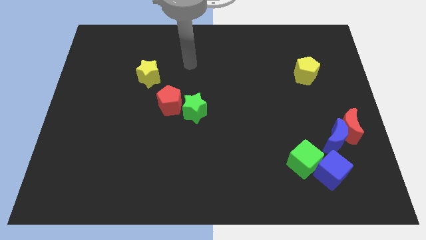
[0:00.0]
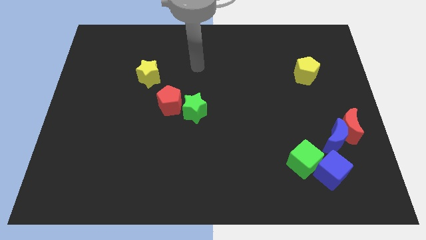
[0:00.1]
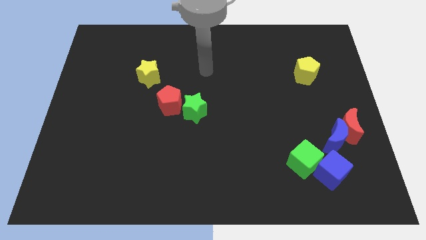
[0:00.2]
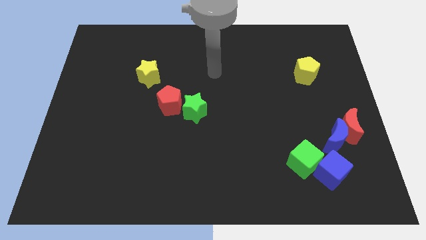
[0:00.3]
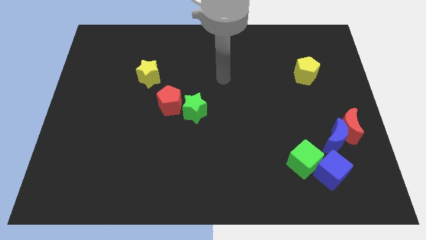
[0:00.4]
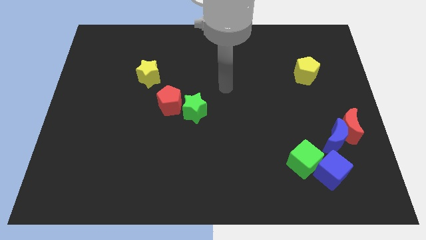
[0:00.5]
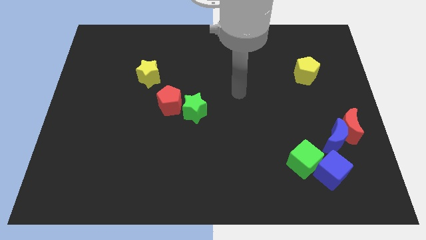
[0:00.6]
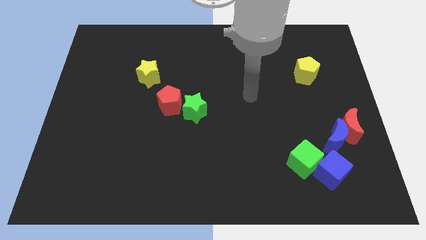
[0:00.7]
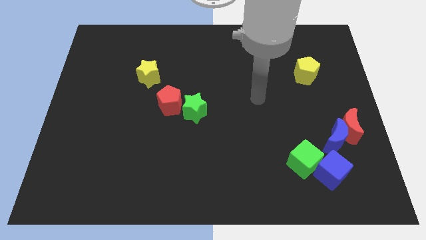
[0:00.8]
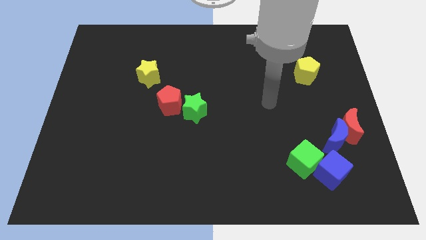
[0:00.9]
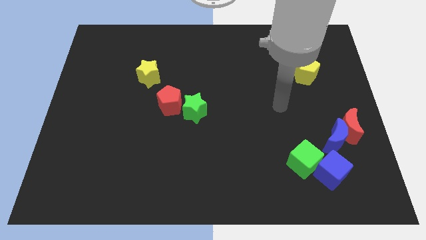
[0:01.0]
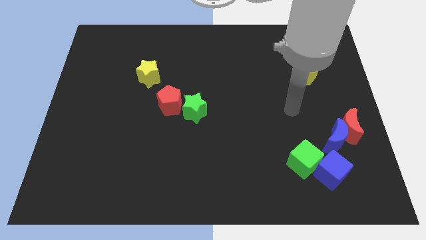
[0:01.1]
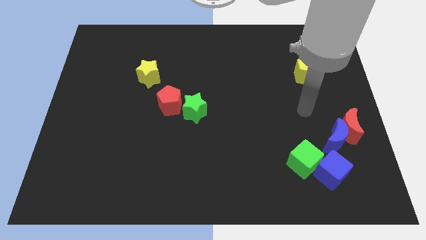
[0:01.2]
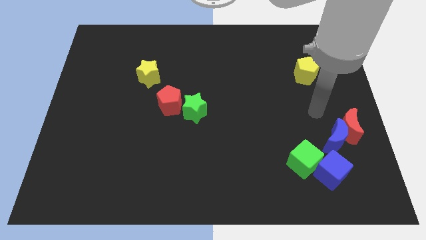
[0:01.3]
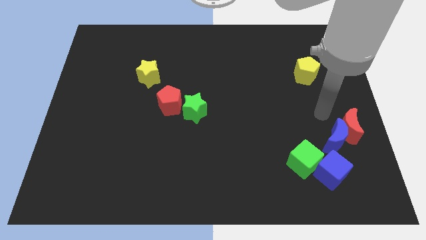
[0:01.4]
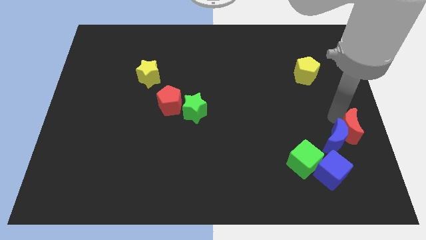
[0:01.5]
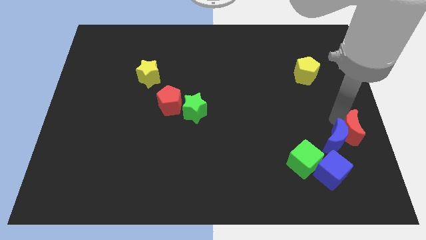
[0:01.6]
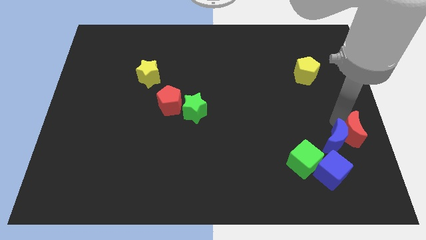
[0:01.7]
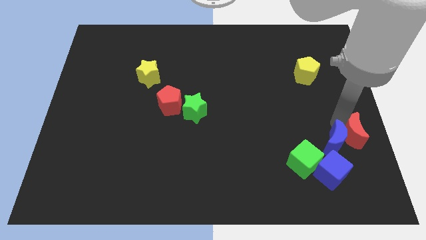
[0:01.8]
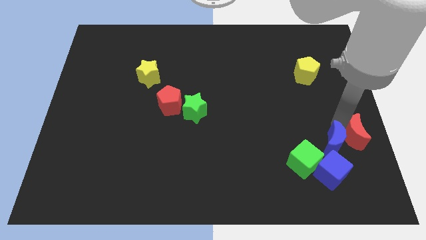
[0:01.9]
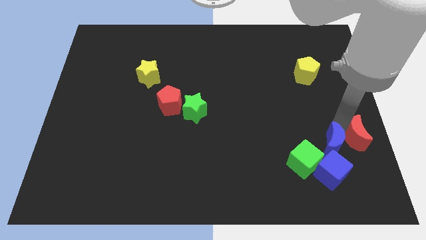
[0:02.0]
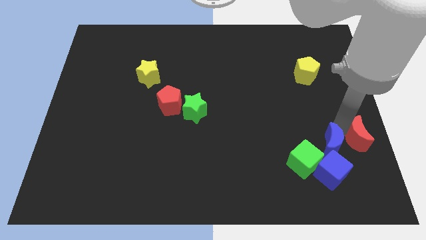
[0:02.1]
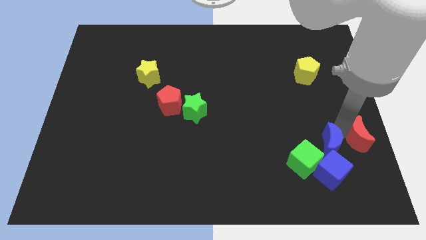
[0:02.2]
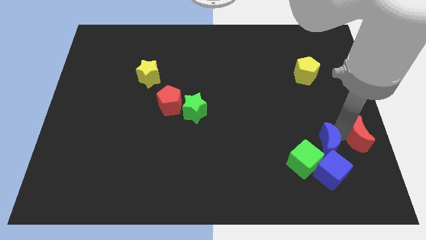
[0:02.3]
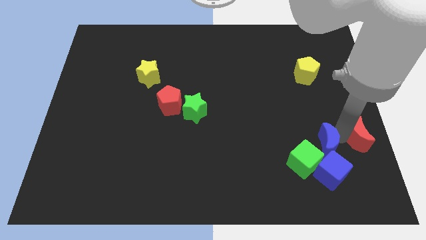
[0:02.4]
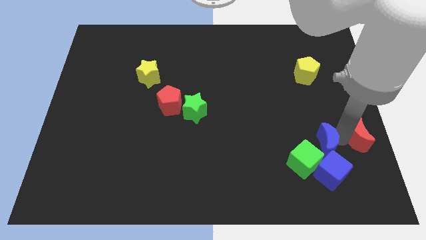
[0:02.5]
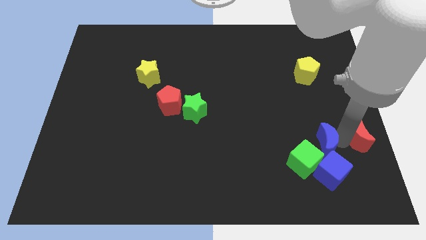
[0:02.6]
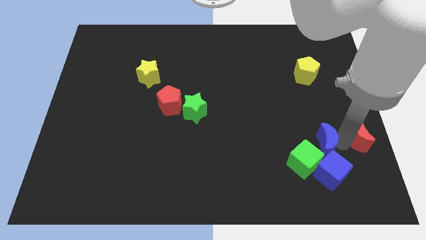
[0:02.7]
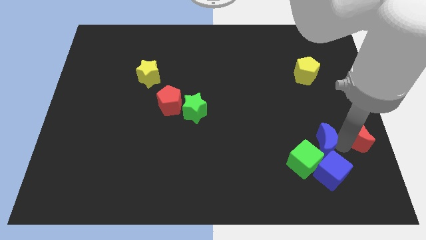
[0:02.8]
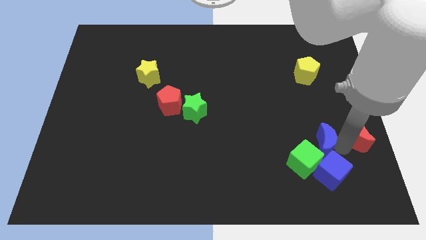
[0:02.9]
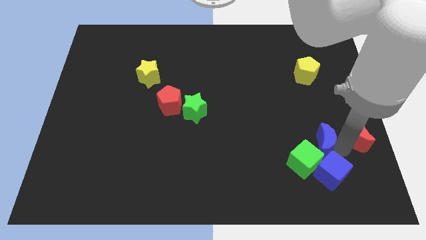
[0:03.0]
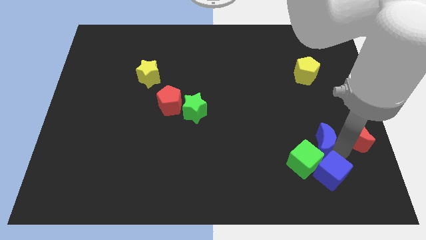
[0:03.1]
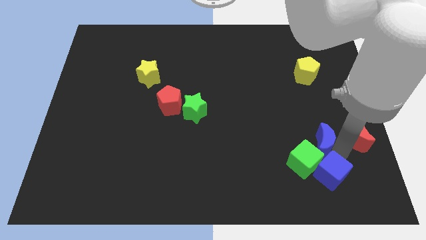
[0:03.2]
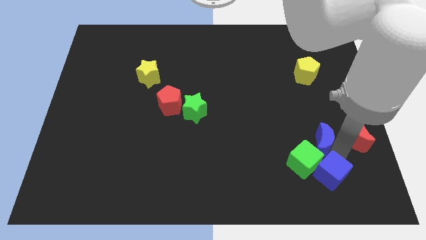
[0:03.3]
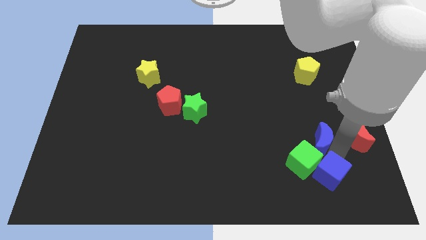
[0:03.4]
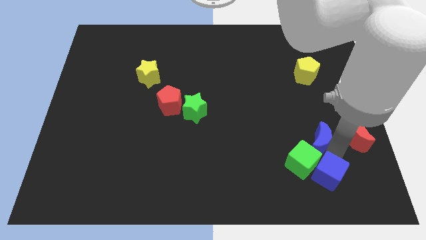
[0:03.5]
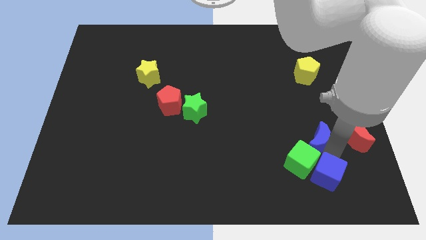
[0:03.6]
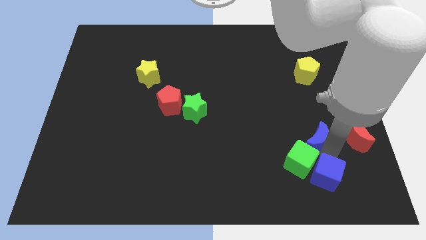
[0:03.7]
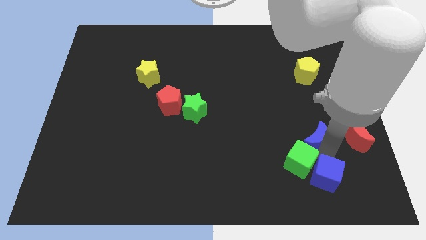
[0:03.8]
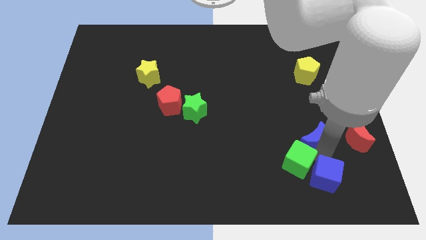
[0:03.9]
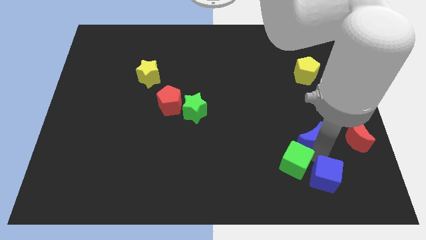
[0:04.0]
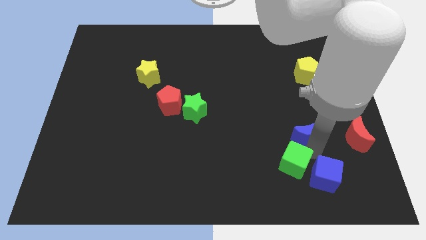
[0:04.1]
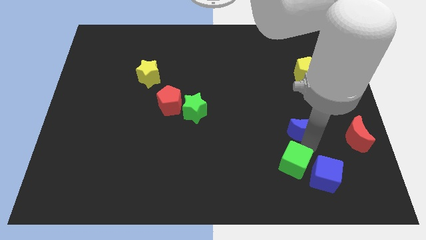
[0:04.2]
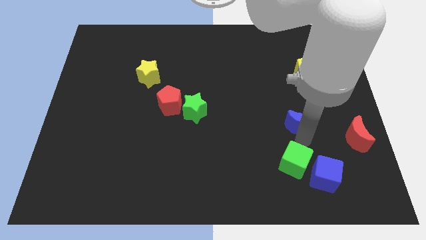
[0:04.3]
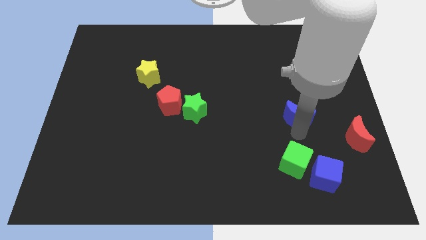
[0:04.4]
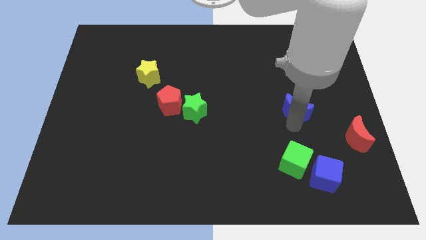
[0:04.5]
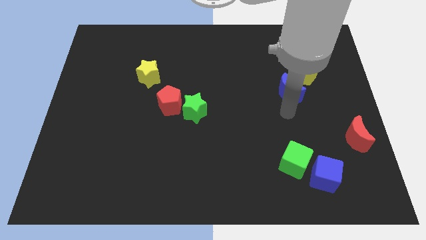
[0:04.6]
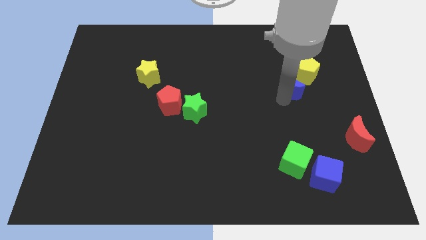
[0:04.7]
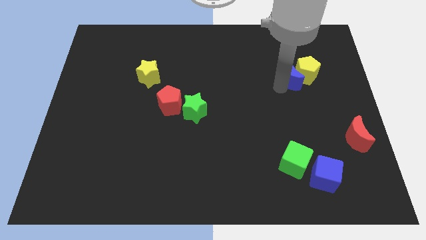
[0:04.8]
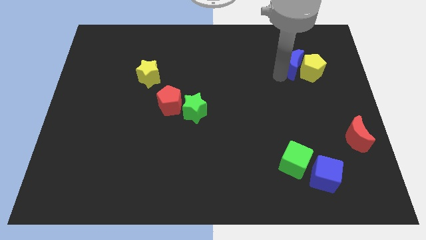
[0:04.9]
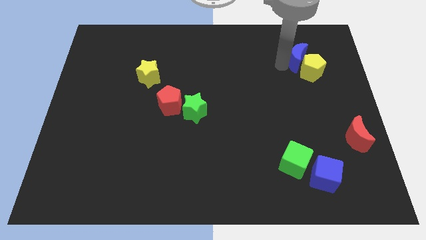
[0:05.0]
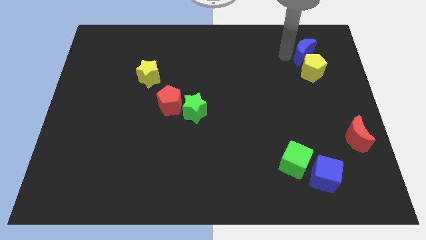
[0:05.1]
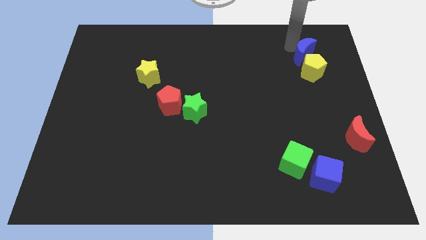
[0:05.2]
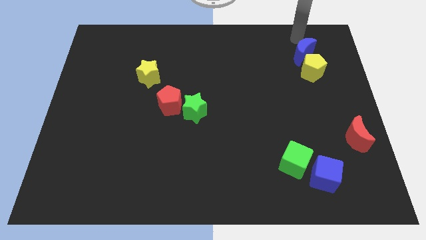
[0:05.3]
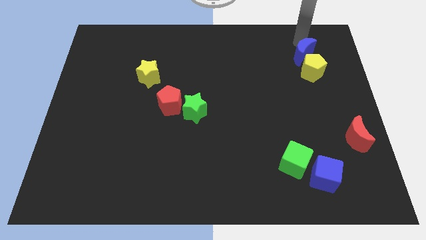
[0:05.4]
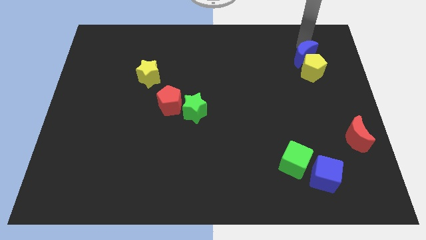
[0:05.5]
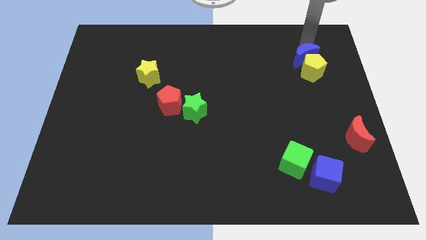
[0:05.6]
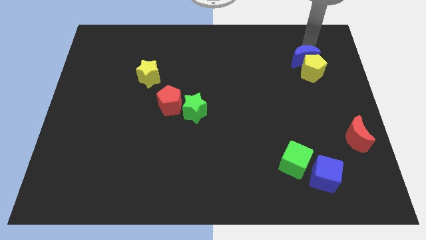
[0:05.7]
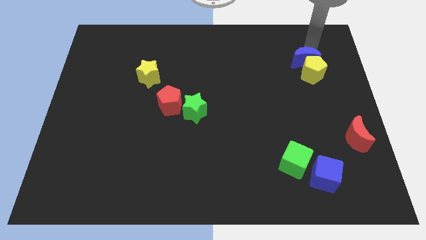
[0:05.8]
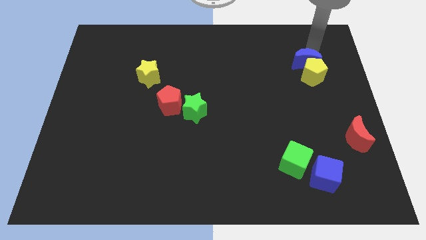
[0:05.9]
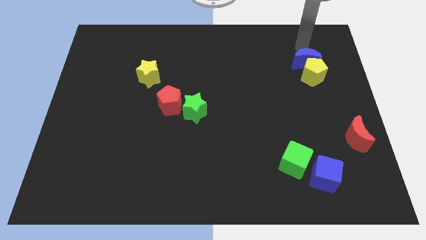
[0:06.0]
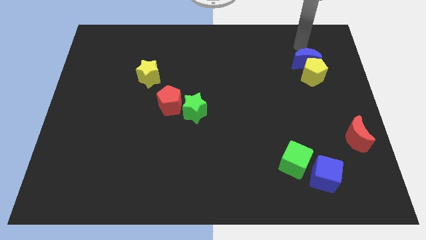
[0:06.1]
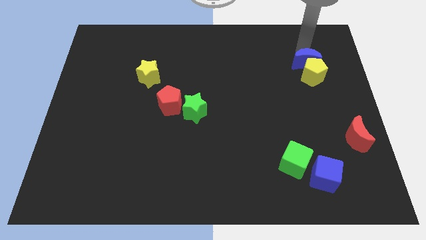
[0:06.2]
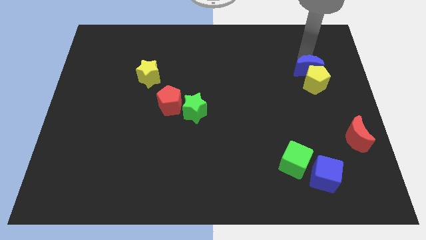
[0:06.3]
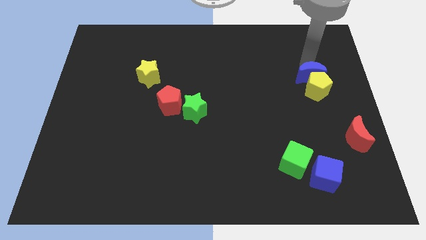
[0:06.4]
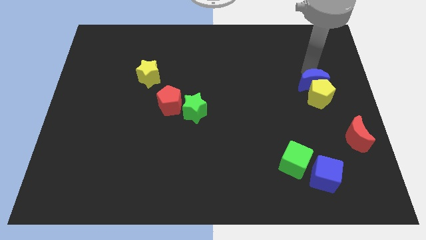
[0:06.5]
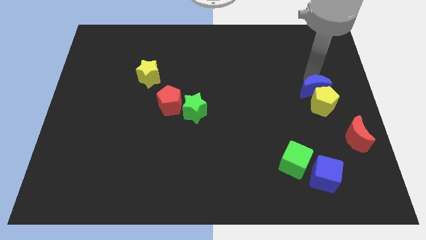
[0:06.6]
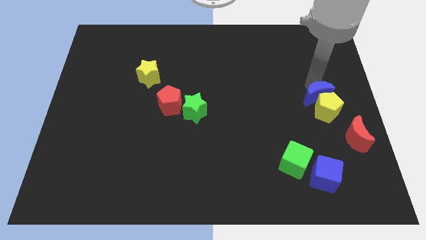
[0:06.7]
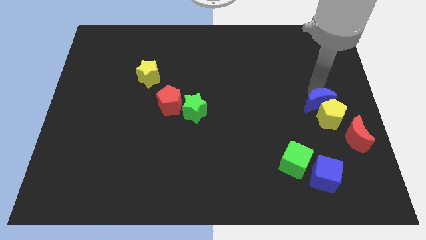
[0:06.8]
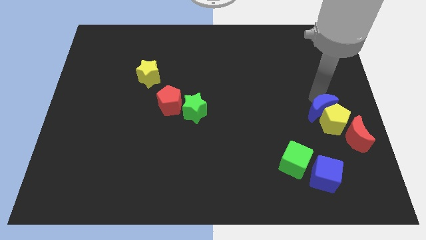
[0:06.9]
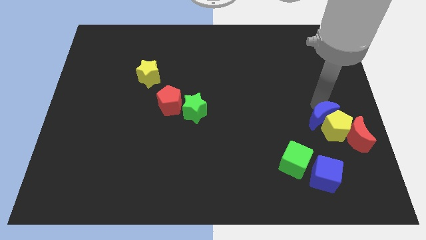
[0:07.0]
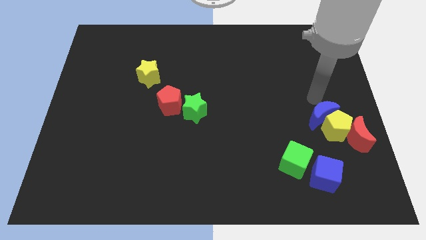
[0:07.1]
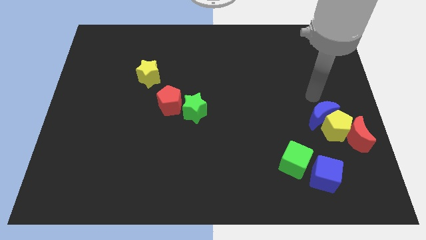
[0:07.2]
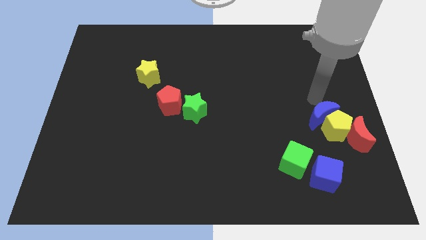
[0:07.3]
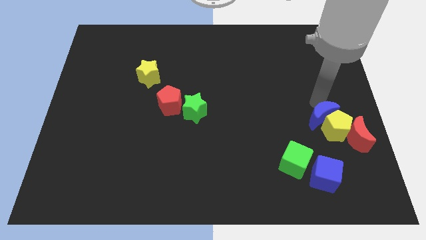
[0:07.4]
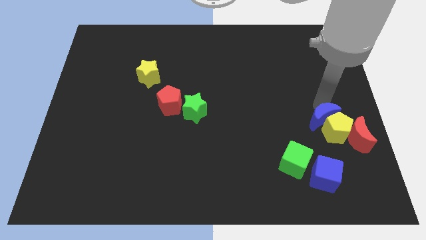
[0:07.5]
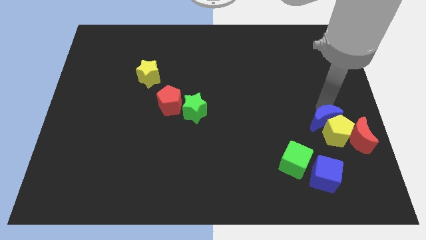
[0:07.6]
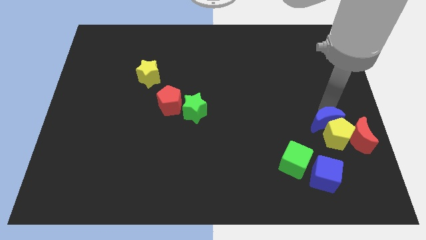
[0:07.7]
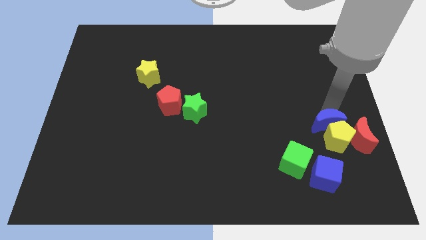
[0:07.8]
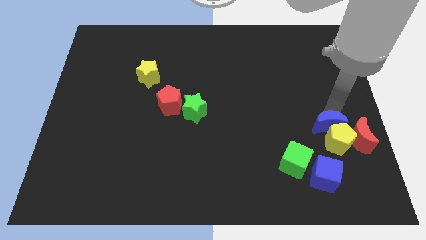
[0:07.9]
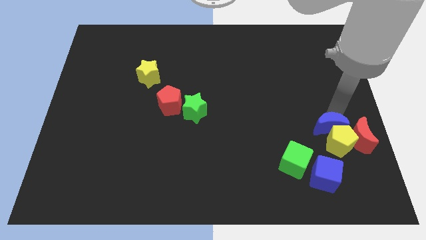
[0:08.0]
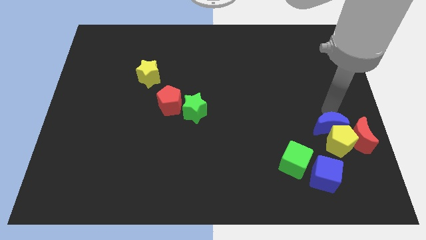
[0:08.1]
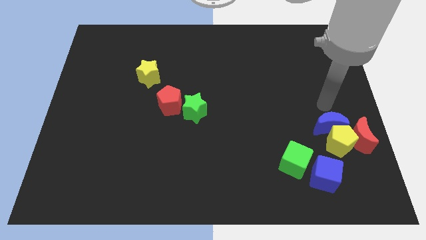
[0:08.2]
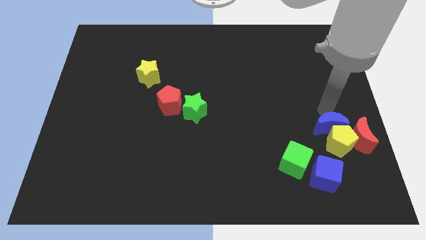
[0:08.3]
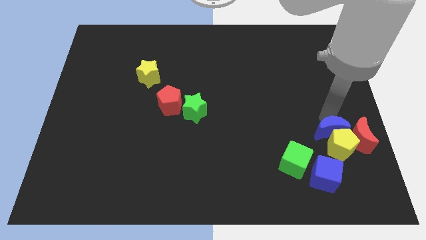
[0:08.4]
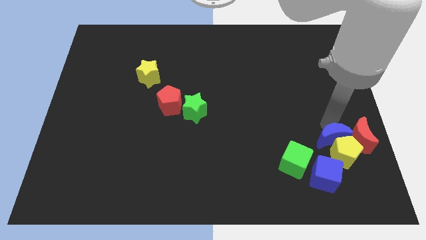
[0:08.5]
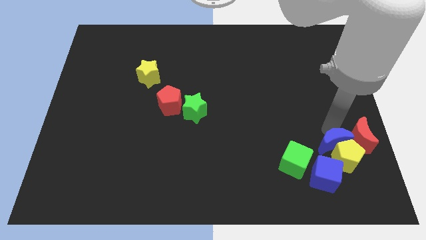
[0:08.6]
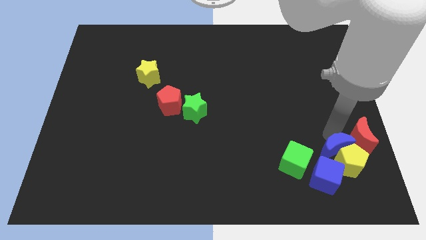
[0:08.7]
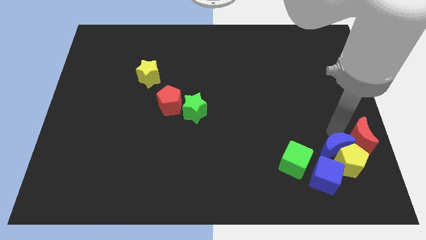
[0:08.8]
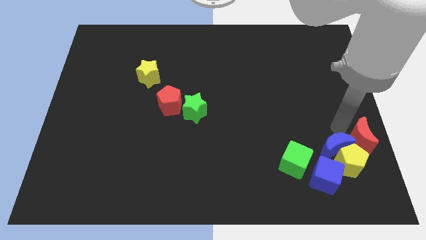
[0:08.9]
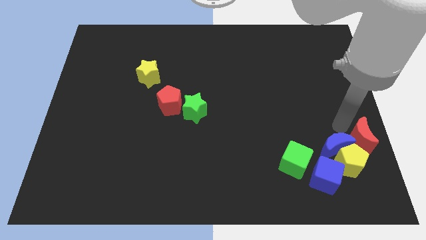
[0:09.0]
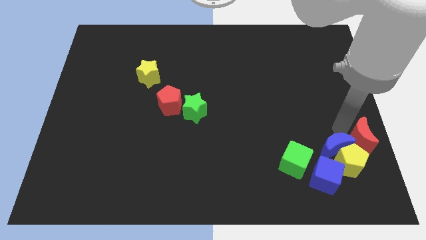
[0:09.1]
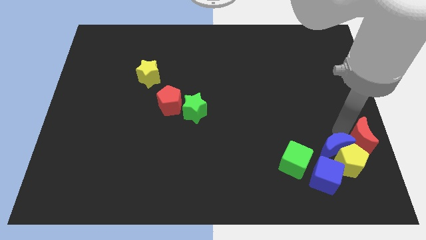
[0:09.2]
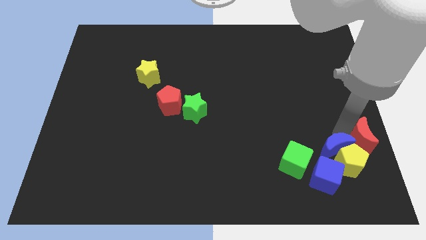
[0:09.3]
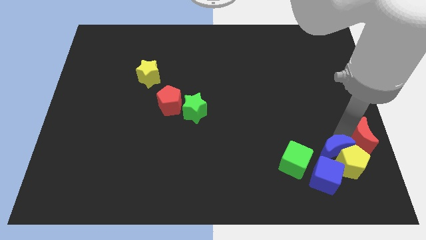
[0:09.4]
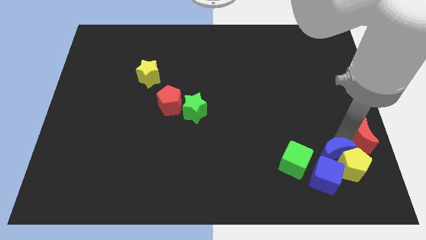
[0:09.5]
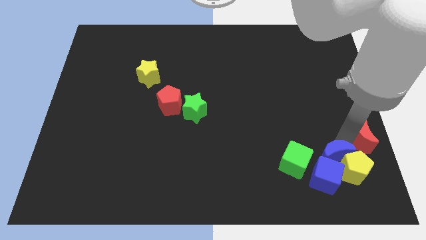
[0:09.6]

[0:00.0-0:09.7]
move the blue moon to the blue cube
